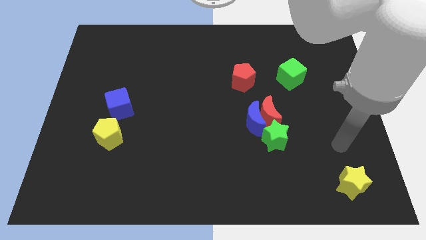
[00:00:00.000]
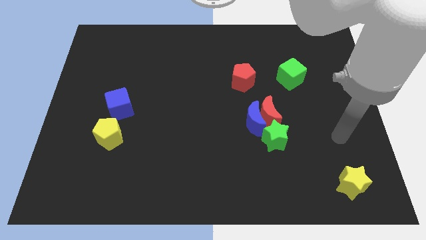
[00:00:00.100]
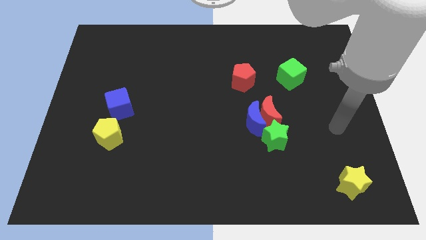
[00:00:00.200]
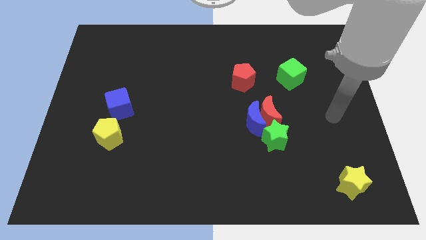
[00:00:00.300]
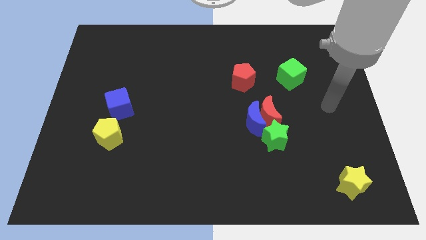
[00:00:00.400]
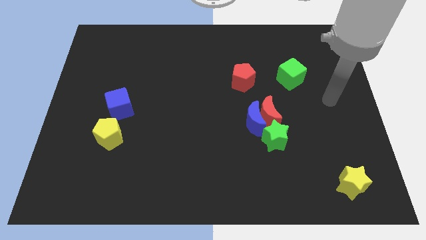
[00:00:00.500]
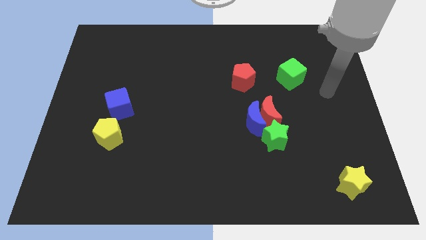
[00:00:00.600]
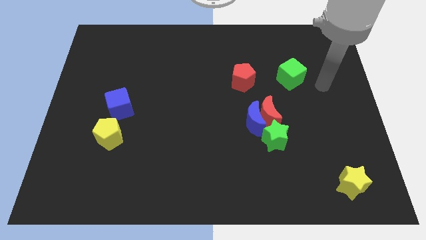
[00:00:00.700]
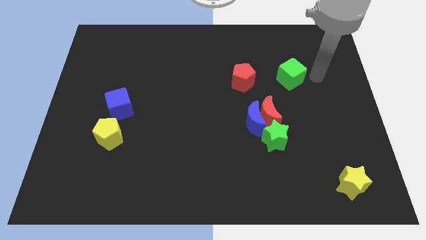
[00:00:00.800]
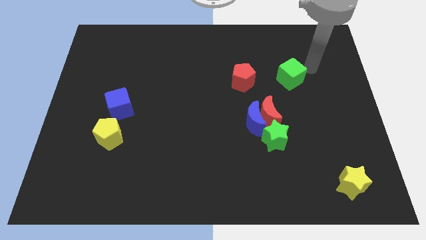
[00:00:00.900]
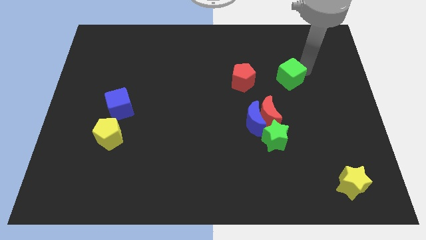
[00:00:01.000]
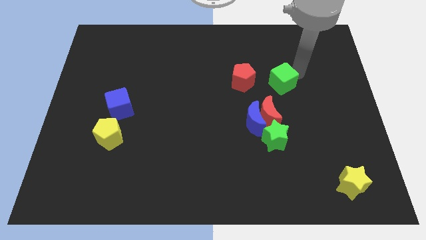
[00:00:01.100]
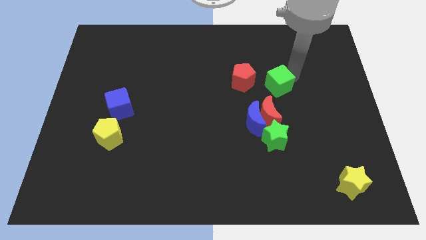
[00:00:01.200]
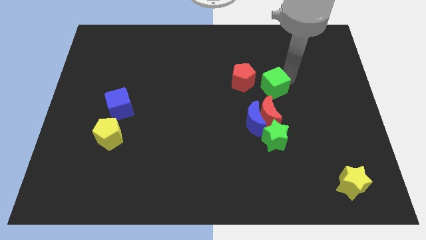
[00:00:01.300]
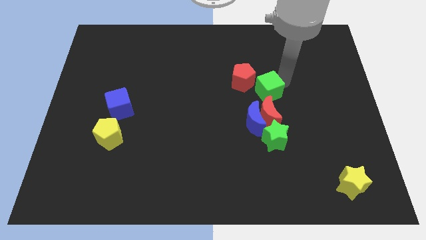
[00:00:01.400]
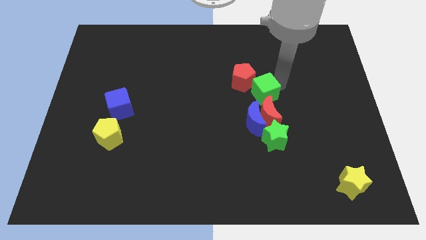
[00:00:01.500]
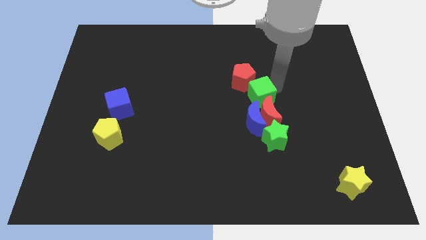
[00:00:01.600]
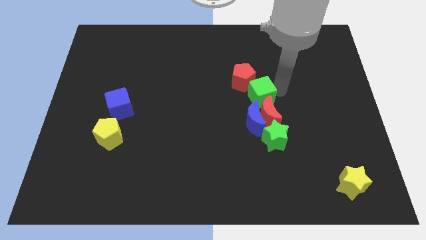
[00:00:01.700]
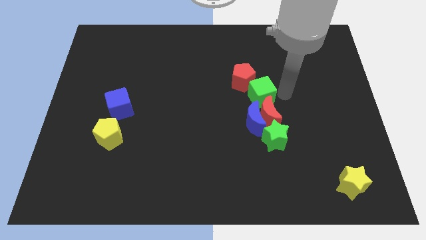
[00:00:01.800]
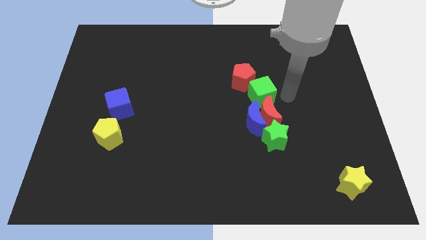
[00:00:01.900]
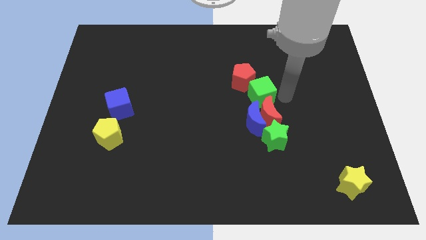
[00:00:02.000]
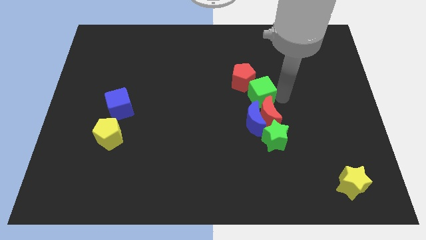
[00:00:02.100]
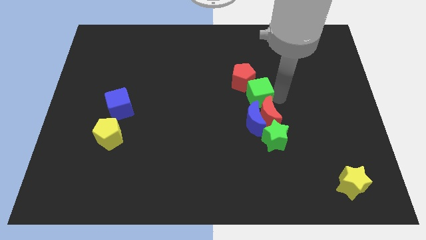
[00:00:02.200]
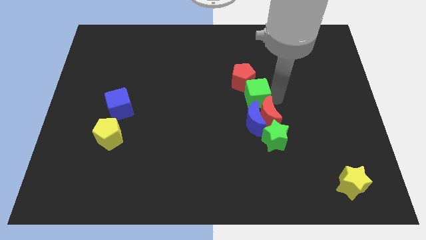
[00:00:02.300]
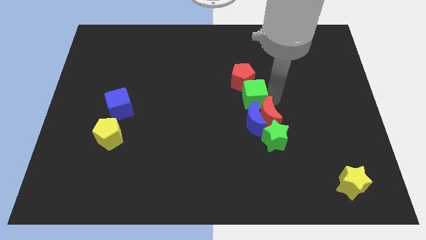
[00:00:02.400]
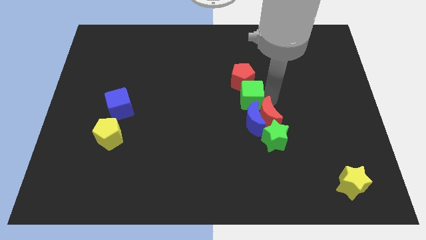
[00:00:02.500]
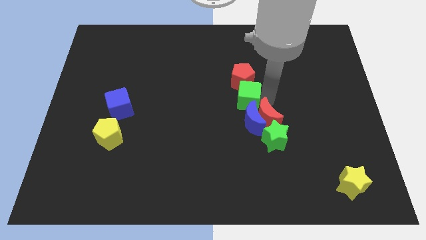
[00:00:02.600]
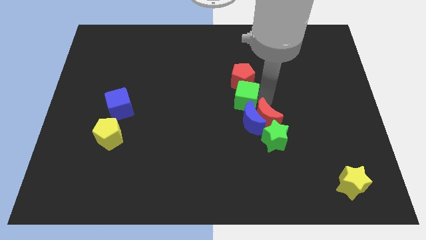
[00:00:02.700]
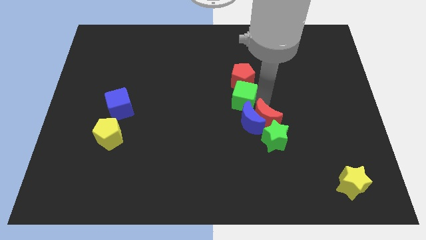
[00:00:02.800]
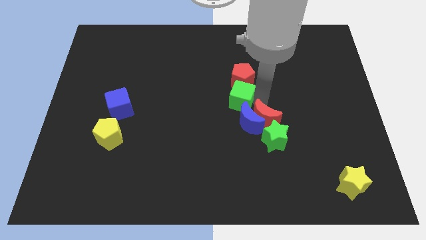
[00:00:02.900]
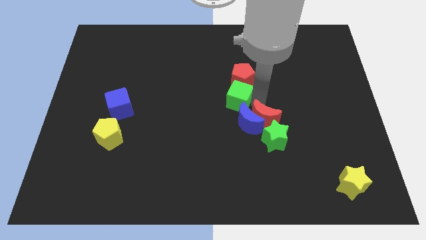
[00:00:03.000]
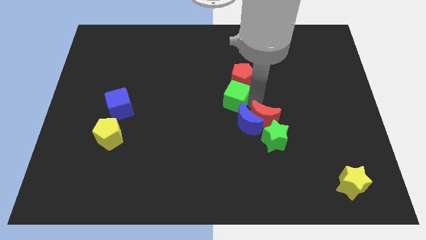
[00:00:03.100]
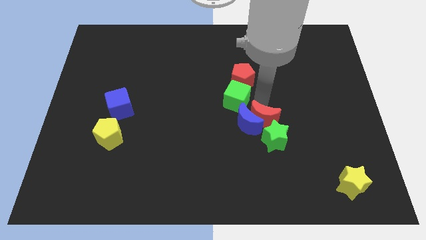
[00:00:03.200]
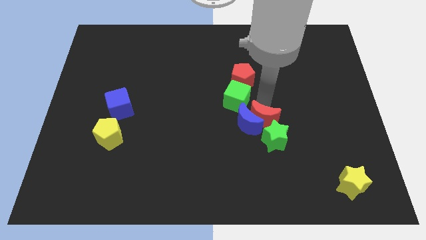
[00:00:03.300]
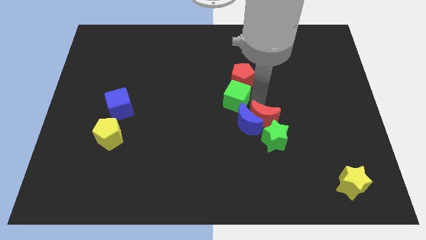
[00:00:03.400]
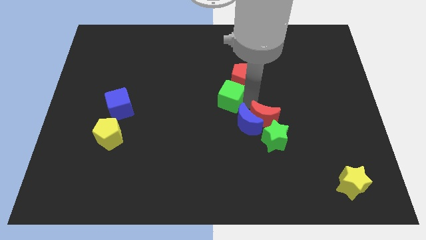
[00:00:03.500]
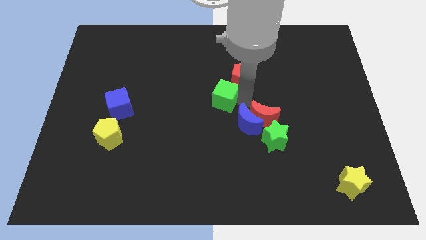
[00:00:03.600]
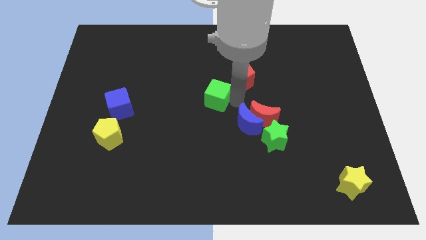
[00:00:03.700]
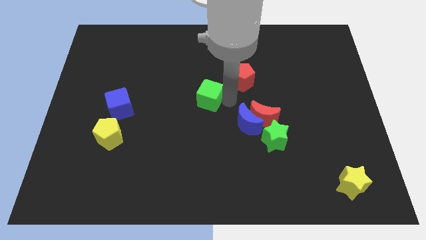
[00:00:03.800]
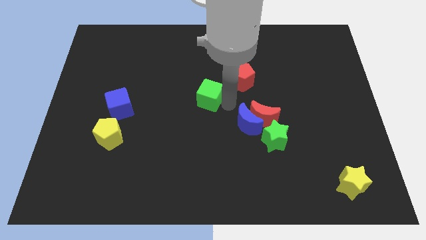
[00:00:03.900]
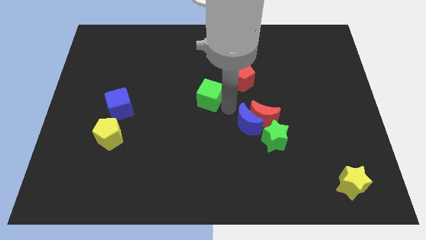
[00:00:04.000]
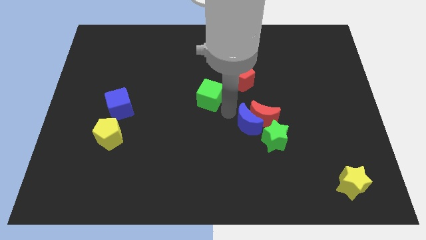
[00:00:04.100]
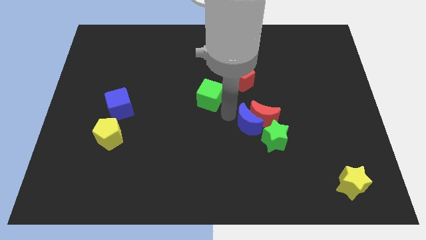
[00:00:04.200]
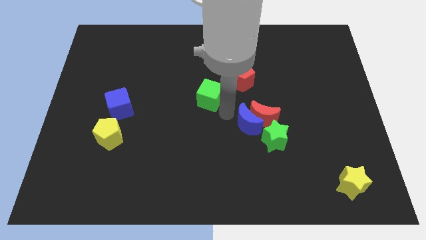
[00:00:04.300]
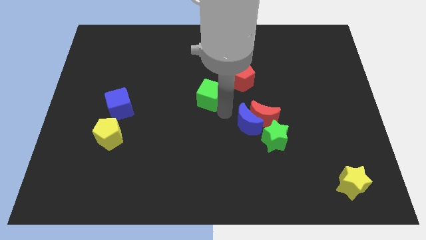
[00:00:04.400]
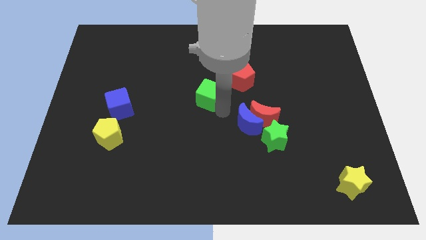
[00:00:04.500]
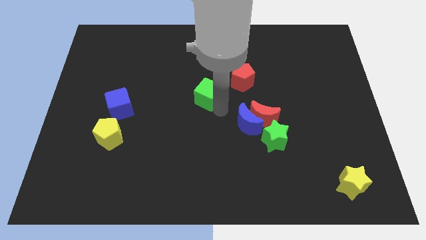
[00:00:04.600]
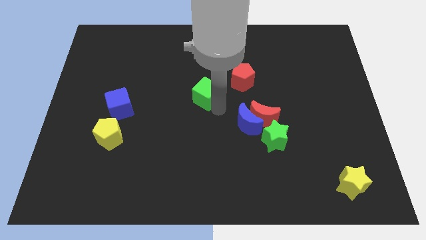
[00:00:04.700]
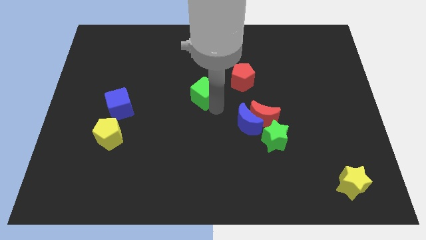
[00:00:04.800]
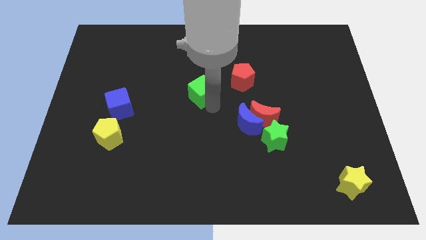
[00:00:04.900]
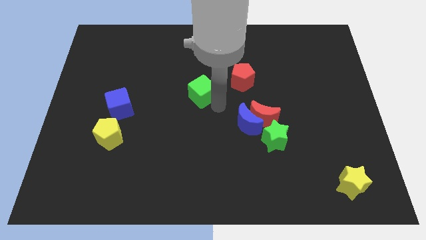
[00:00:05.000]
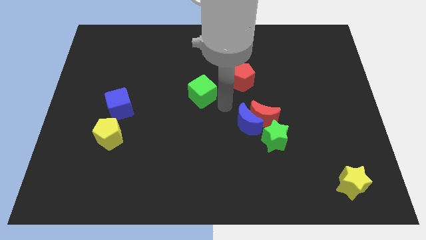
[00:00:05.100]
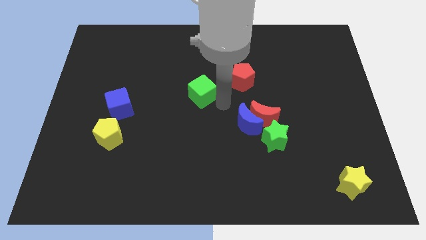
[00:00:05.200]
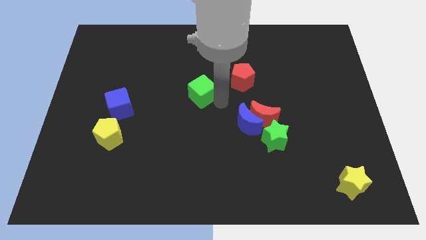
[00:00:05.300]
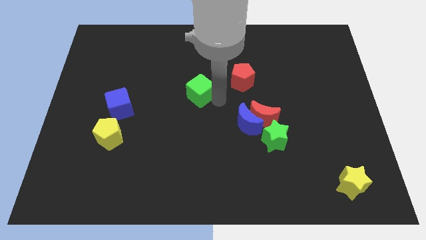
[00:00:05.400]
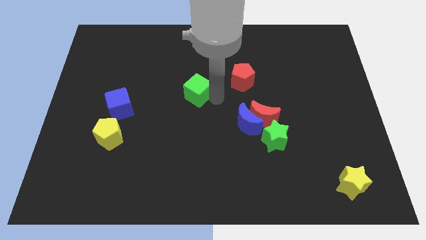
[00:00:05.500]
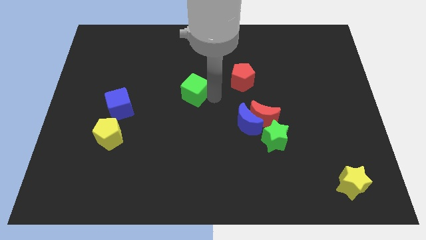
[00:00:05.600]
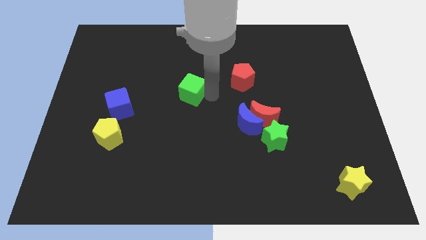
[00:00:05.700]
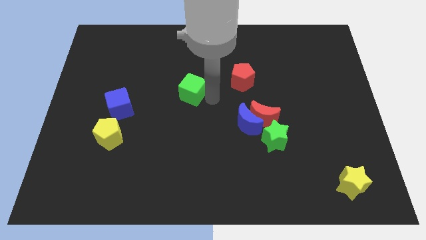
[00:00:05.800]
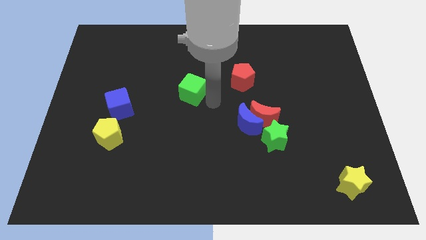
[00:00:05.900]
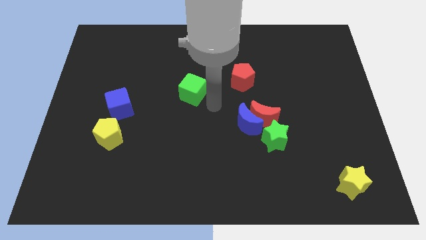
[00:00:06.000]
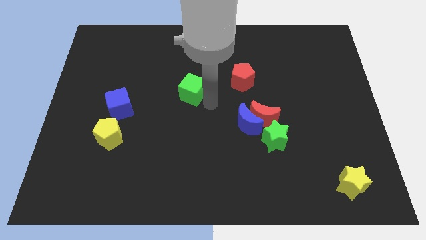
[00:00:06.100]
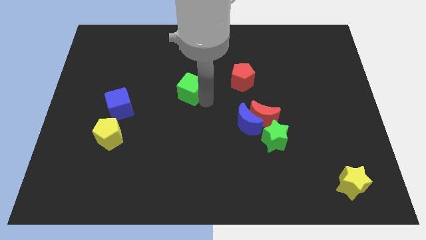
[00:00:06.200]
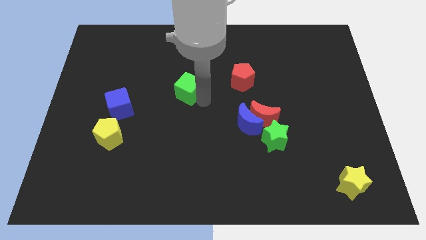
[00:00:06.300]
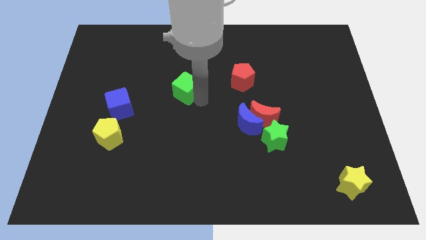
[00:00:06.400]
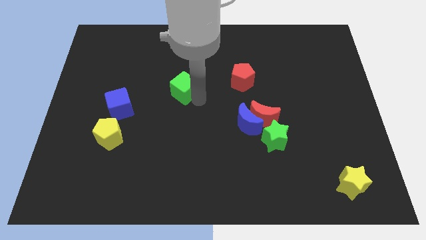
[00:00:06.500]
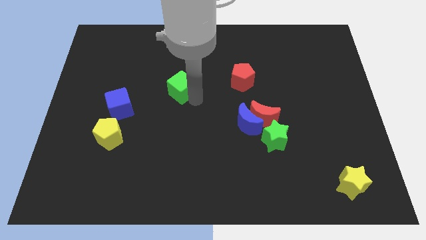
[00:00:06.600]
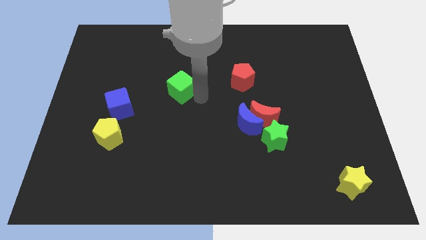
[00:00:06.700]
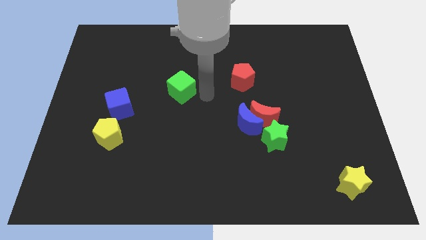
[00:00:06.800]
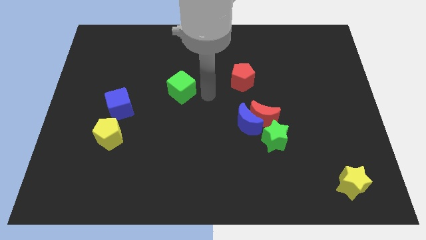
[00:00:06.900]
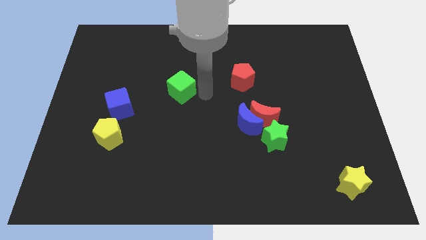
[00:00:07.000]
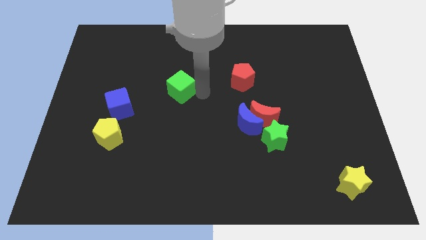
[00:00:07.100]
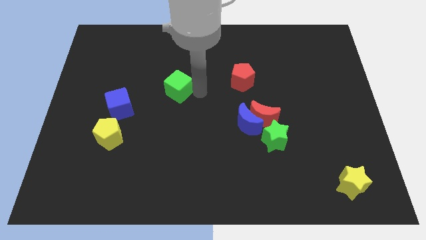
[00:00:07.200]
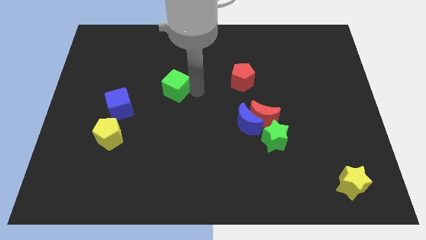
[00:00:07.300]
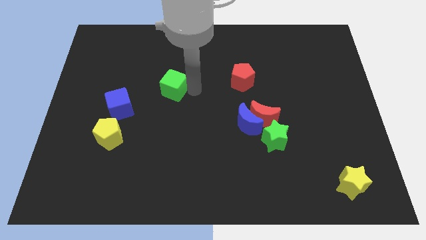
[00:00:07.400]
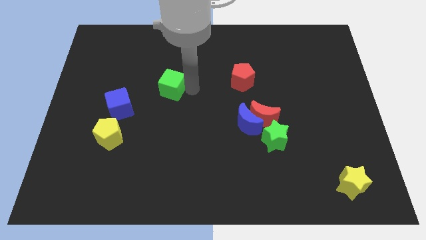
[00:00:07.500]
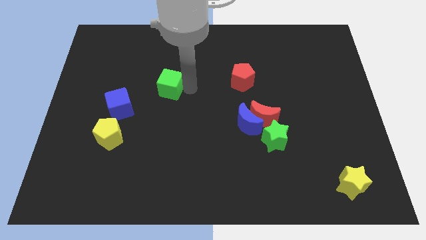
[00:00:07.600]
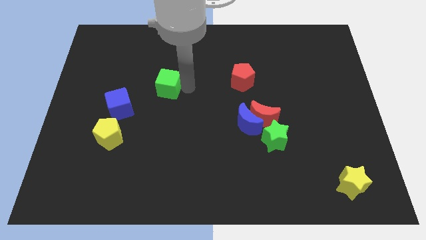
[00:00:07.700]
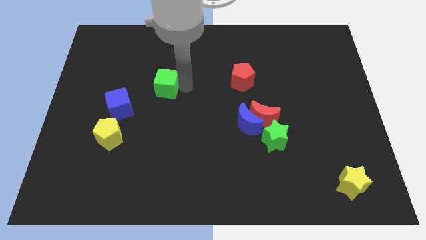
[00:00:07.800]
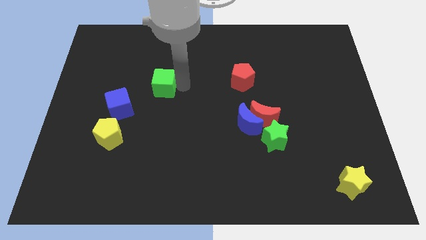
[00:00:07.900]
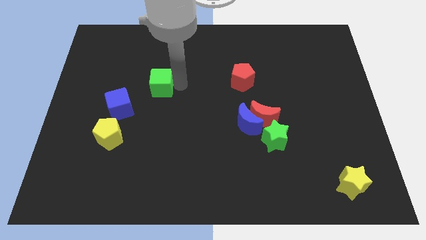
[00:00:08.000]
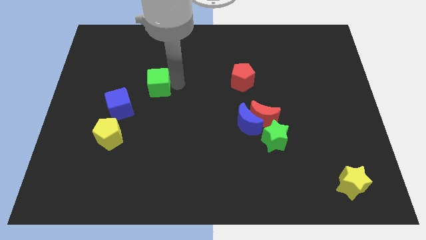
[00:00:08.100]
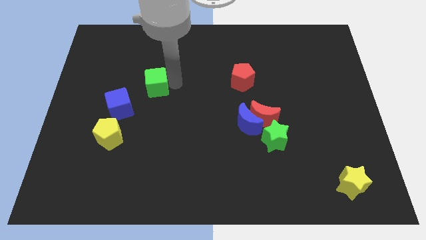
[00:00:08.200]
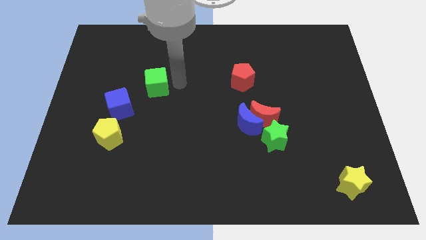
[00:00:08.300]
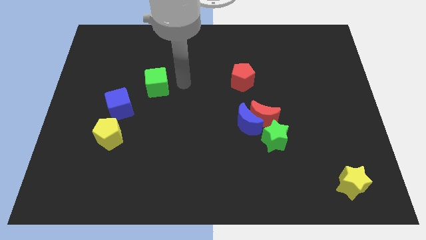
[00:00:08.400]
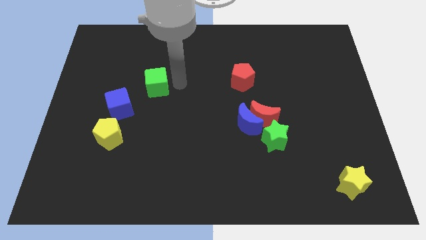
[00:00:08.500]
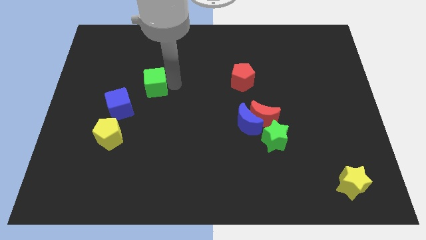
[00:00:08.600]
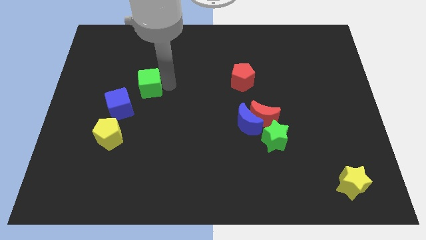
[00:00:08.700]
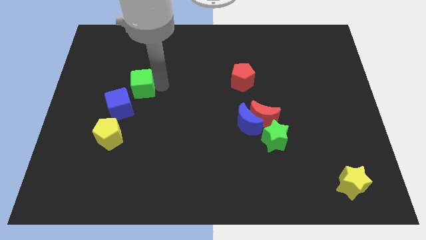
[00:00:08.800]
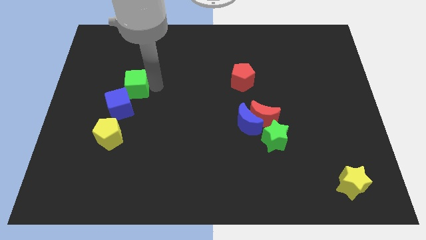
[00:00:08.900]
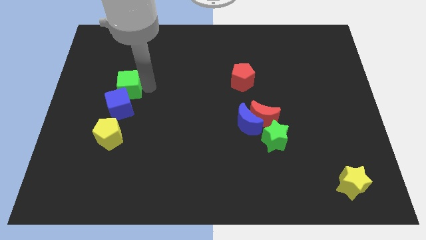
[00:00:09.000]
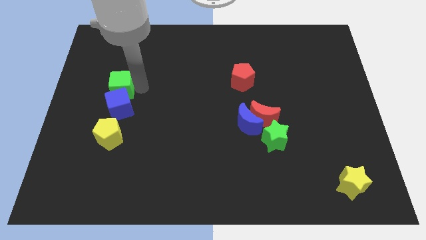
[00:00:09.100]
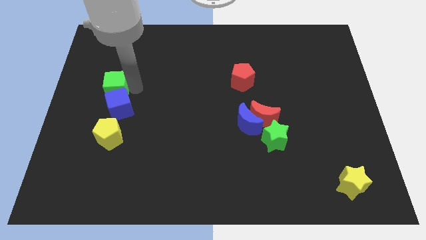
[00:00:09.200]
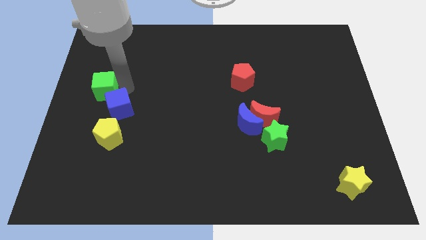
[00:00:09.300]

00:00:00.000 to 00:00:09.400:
move the green cube to the left side of the board
